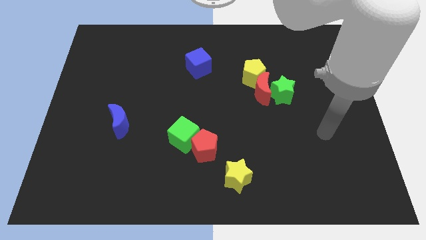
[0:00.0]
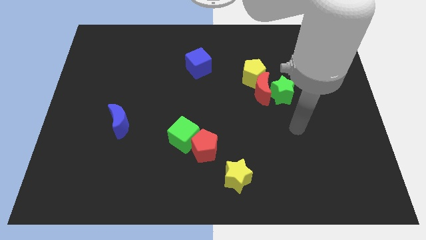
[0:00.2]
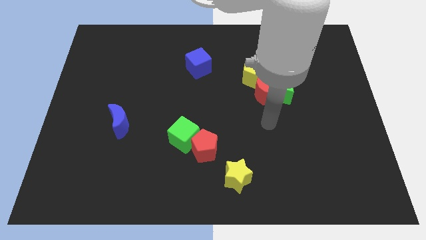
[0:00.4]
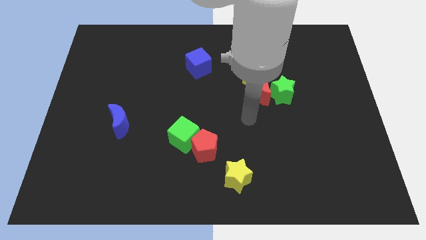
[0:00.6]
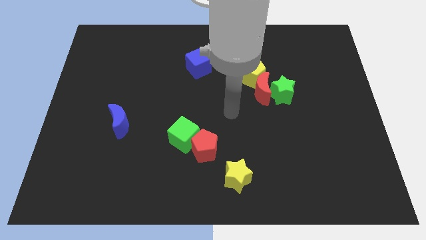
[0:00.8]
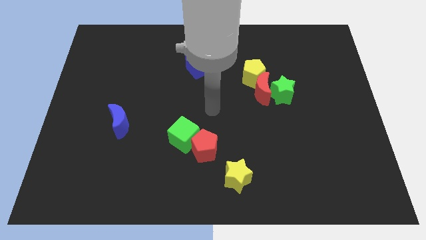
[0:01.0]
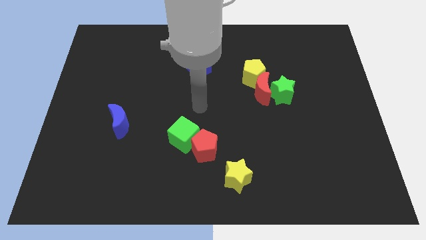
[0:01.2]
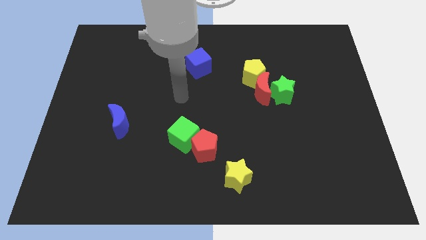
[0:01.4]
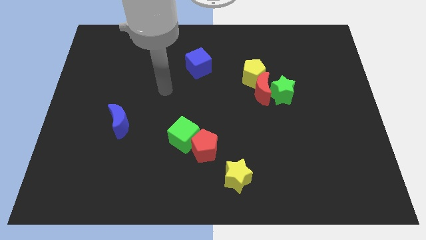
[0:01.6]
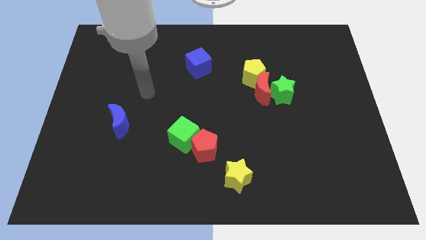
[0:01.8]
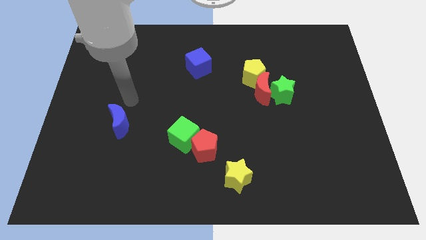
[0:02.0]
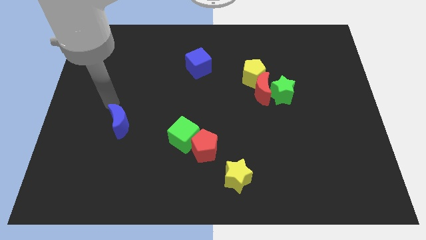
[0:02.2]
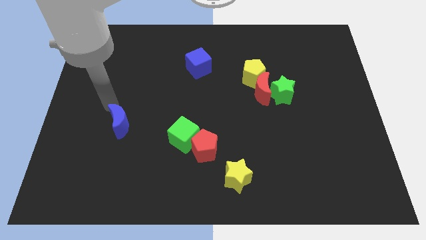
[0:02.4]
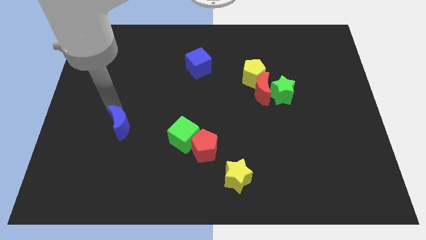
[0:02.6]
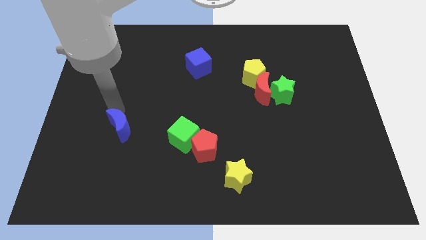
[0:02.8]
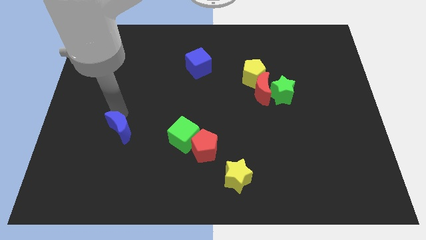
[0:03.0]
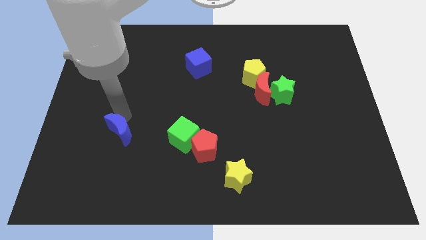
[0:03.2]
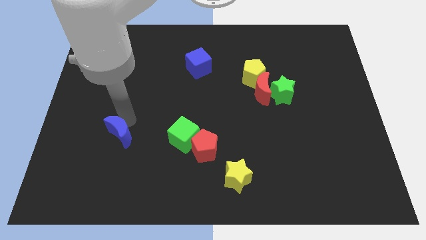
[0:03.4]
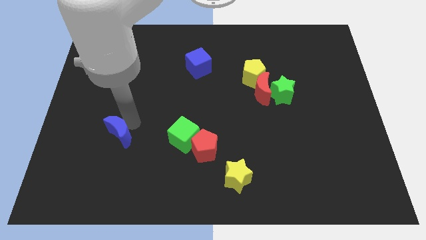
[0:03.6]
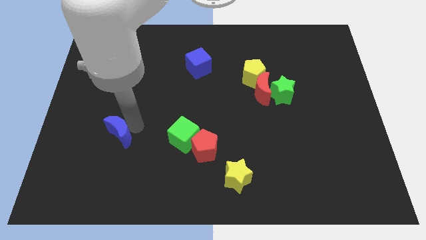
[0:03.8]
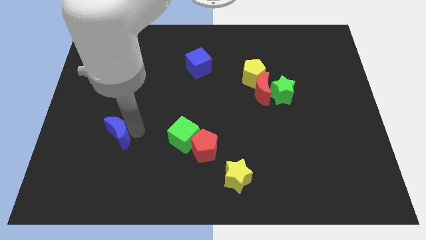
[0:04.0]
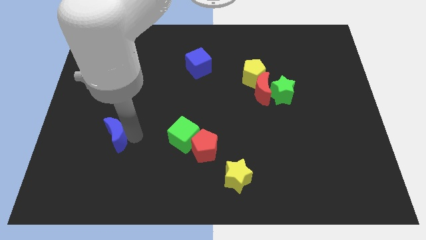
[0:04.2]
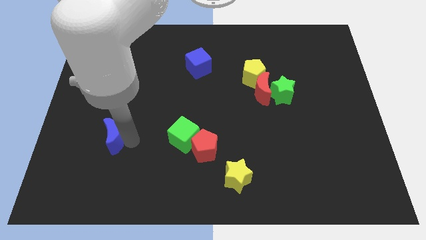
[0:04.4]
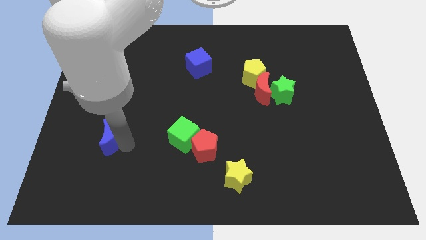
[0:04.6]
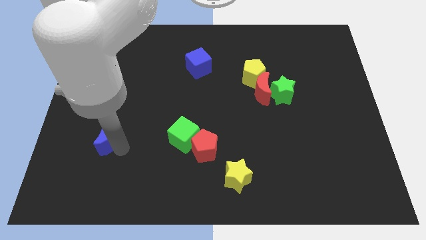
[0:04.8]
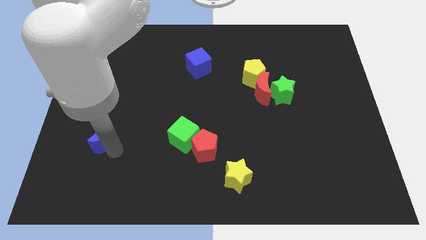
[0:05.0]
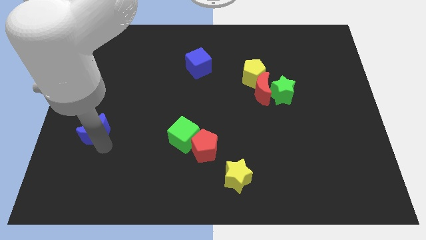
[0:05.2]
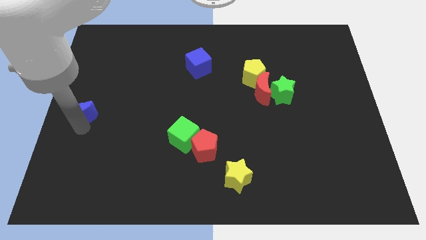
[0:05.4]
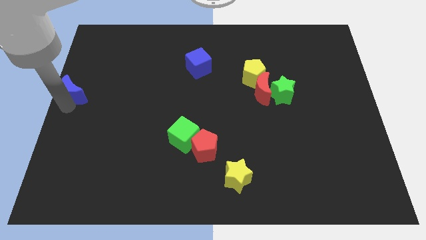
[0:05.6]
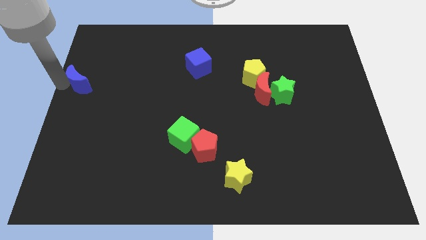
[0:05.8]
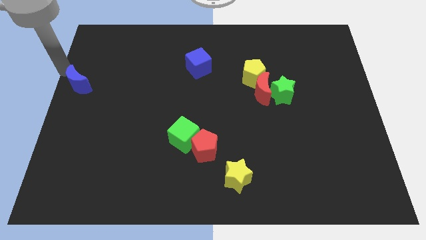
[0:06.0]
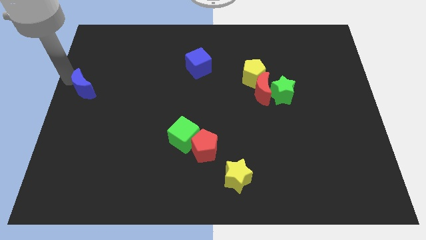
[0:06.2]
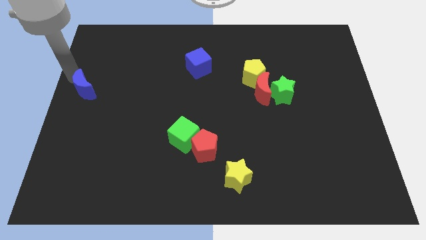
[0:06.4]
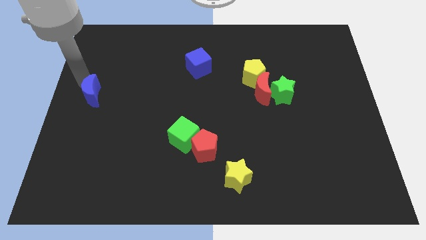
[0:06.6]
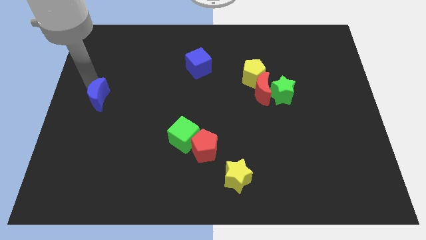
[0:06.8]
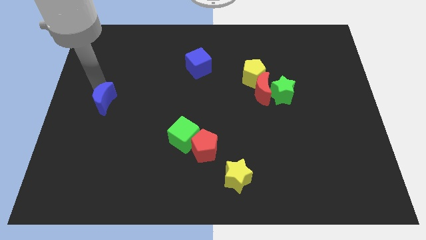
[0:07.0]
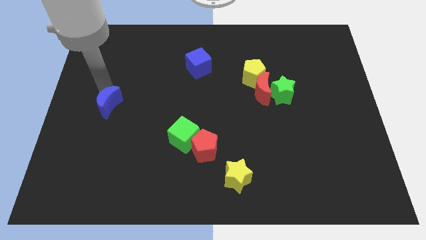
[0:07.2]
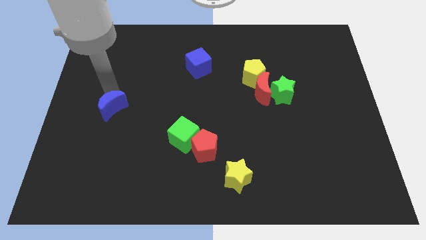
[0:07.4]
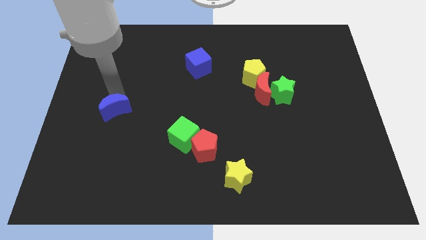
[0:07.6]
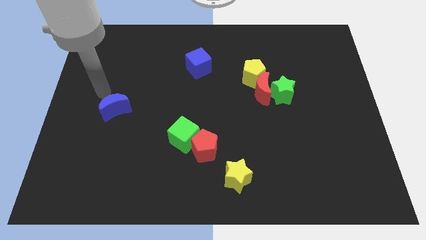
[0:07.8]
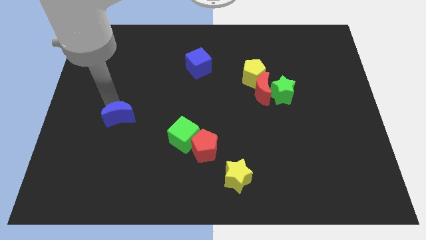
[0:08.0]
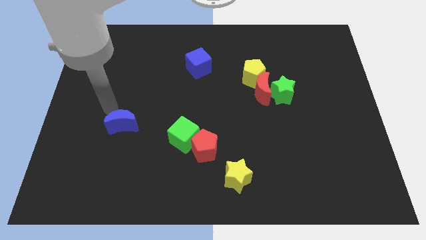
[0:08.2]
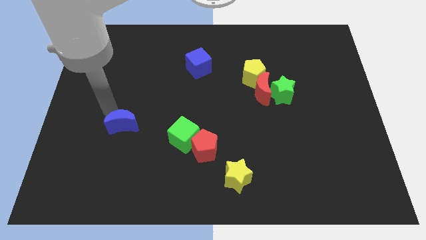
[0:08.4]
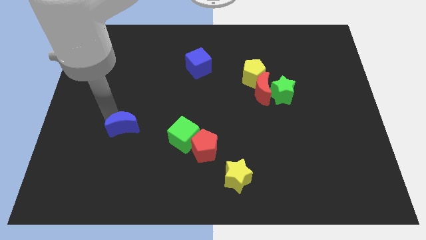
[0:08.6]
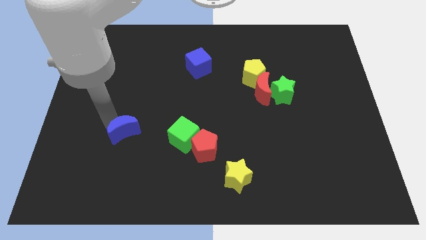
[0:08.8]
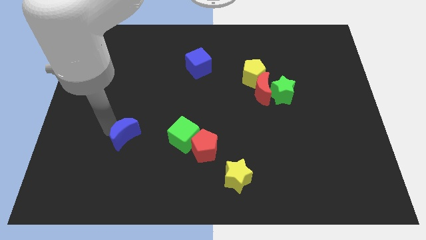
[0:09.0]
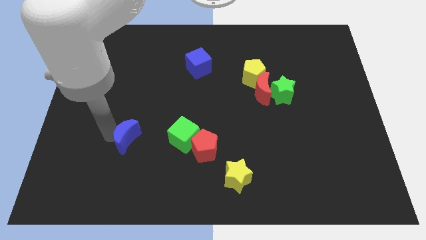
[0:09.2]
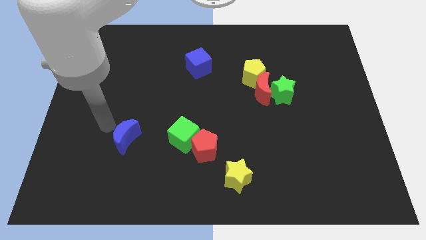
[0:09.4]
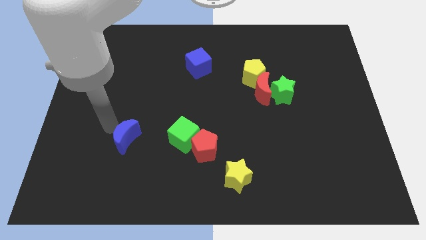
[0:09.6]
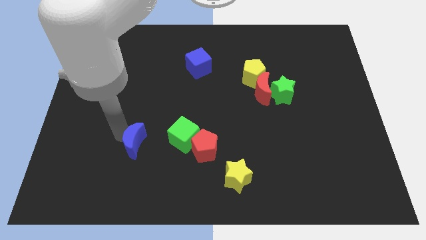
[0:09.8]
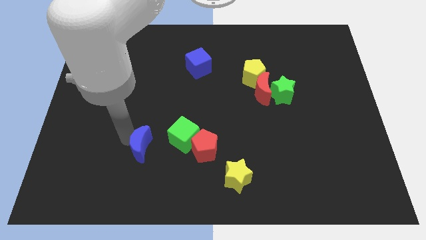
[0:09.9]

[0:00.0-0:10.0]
push the blue moon slightly down and then right

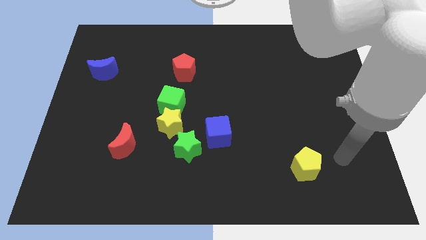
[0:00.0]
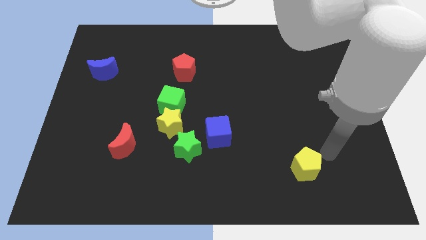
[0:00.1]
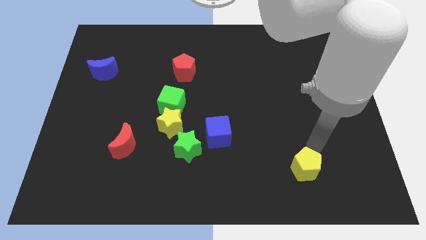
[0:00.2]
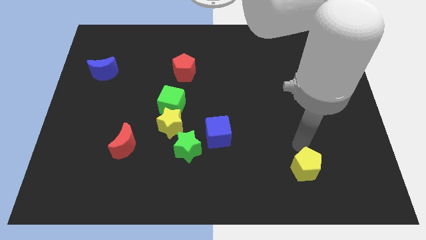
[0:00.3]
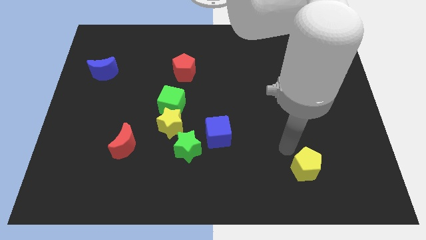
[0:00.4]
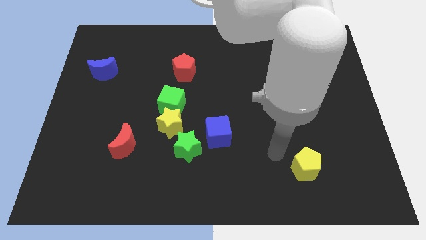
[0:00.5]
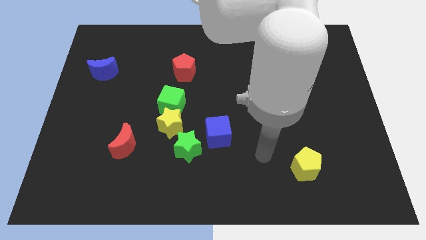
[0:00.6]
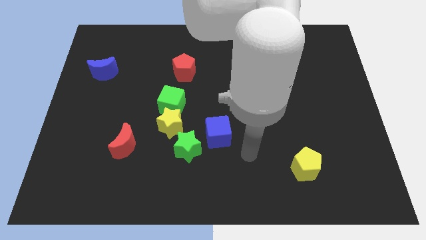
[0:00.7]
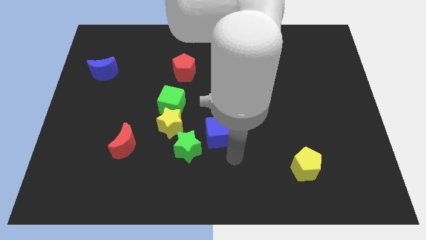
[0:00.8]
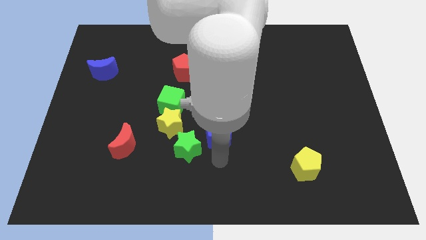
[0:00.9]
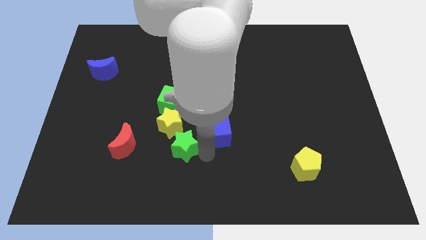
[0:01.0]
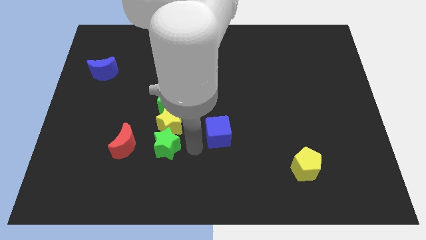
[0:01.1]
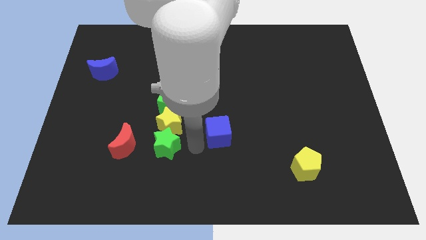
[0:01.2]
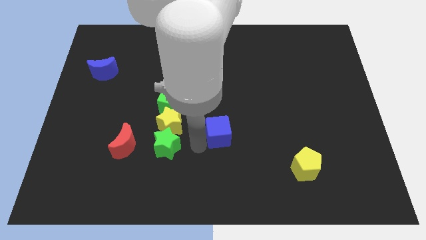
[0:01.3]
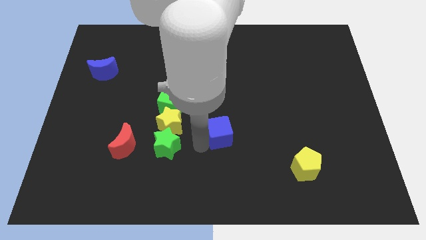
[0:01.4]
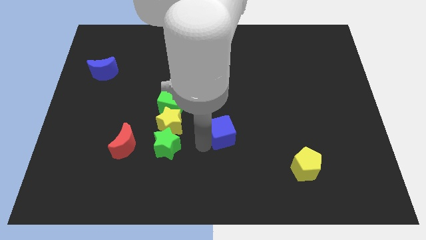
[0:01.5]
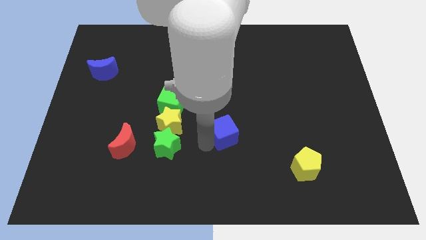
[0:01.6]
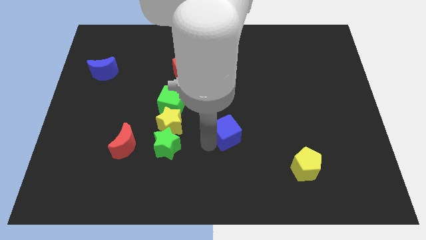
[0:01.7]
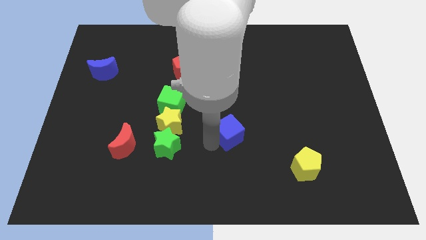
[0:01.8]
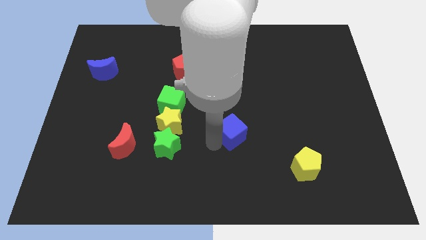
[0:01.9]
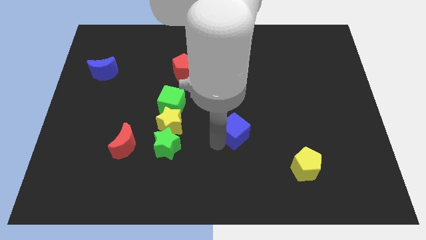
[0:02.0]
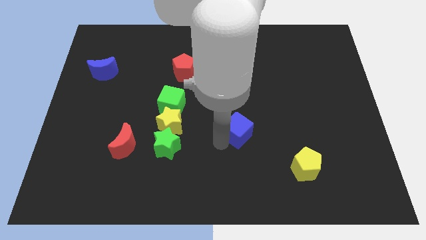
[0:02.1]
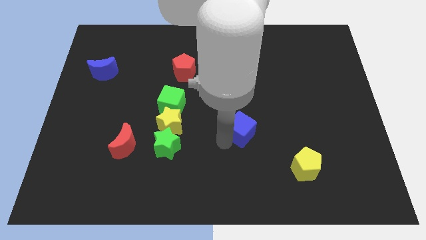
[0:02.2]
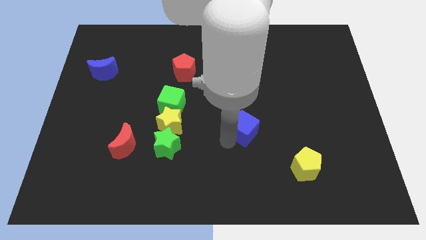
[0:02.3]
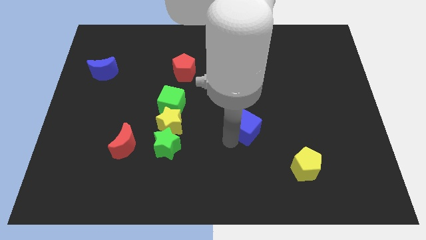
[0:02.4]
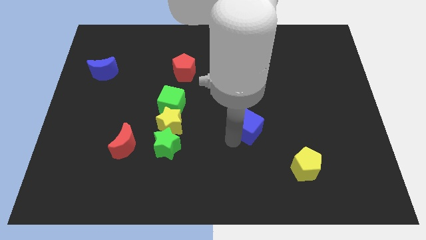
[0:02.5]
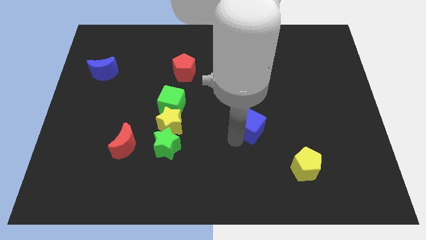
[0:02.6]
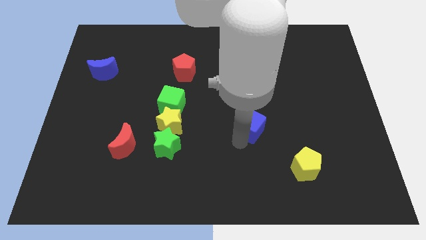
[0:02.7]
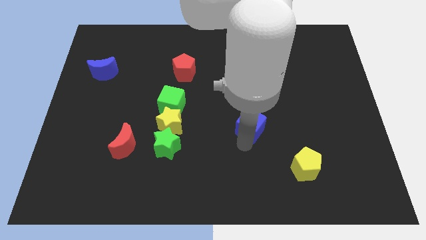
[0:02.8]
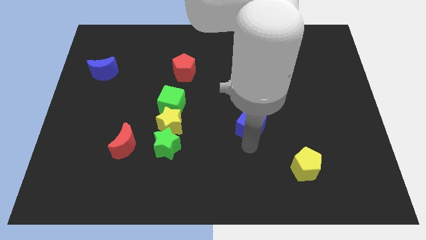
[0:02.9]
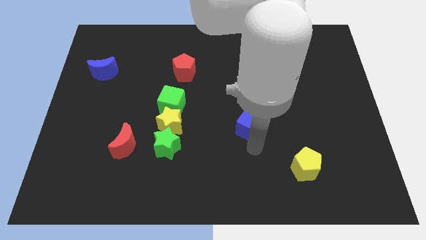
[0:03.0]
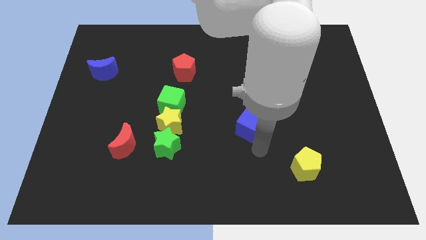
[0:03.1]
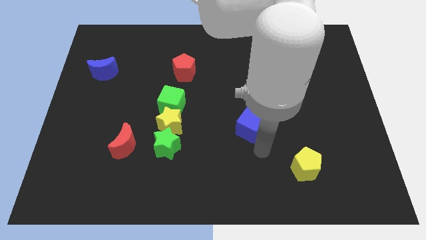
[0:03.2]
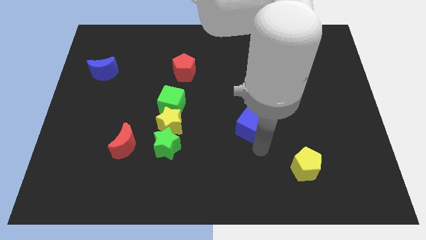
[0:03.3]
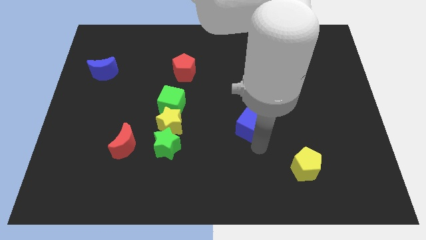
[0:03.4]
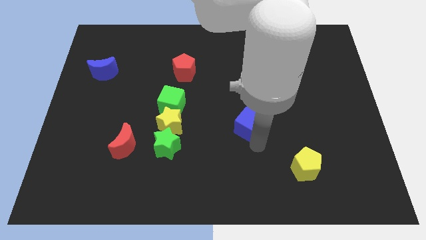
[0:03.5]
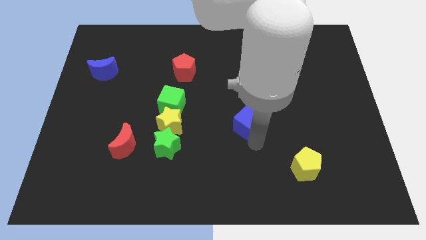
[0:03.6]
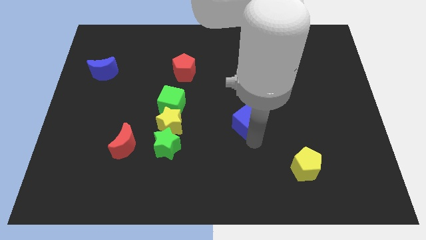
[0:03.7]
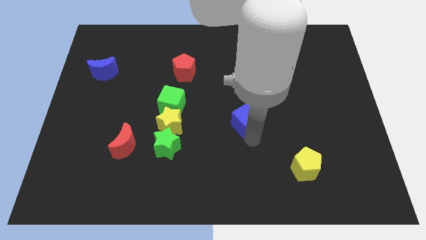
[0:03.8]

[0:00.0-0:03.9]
slide the blue cube a little up and then to the right
